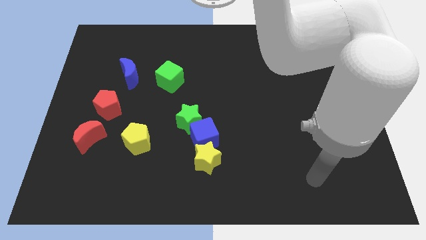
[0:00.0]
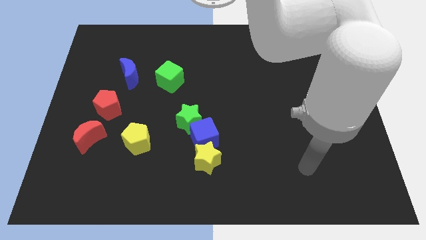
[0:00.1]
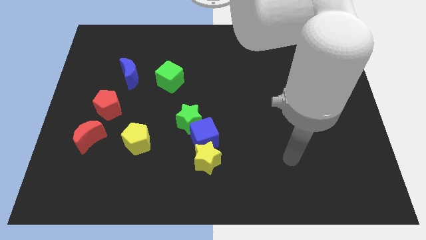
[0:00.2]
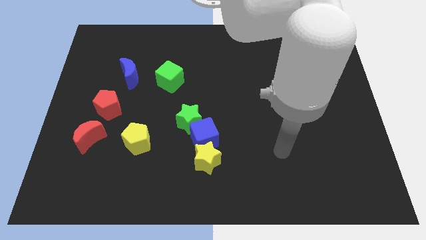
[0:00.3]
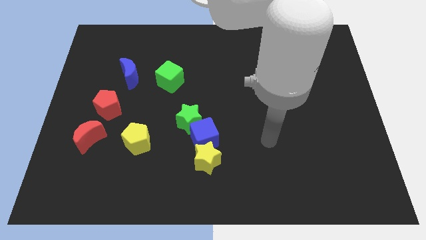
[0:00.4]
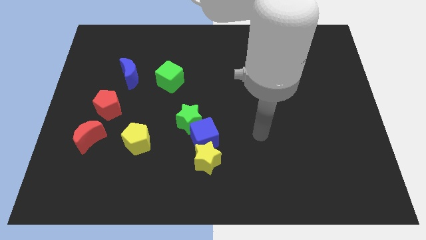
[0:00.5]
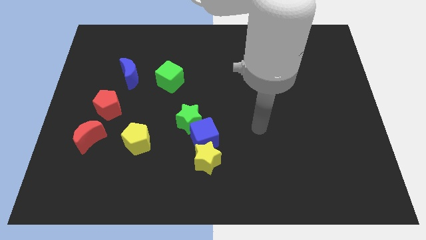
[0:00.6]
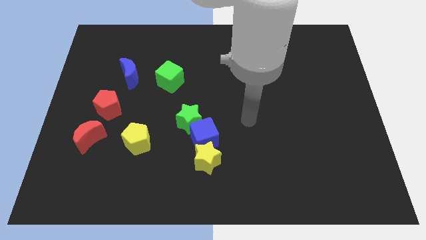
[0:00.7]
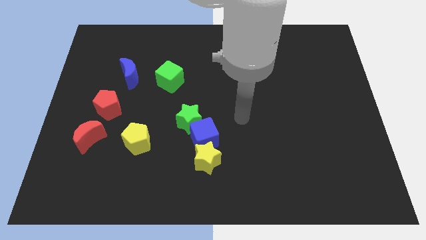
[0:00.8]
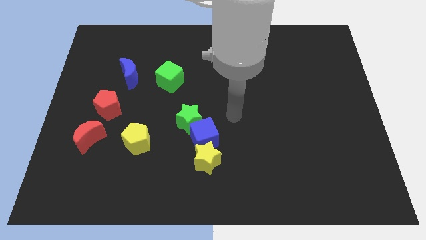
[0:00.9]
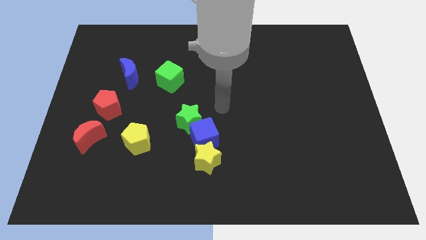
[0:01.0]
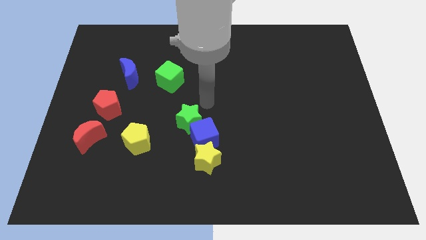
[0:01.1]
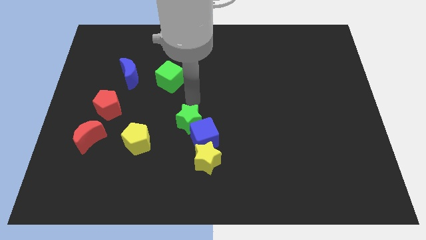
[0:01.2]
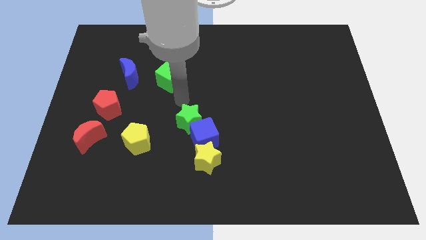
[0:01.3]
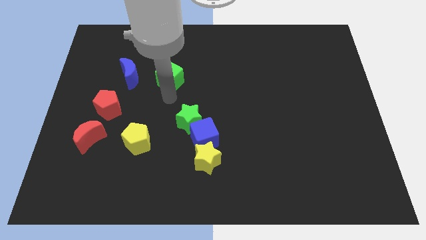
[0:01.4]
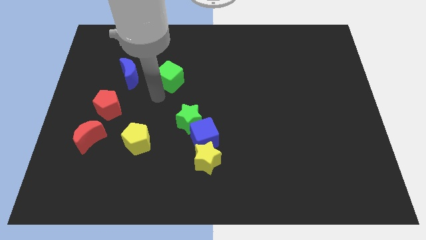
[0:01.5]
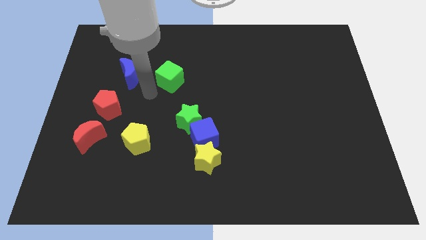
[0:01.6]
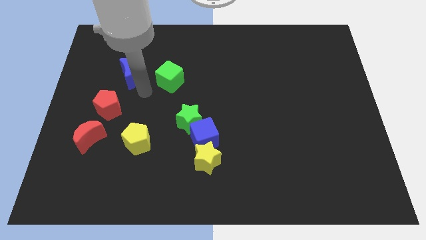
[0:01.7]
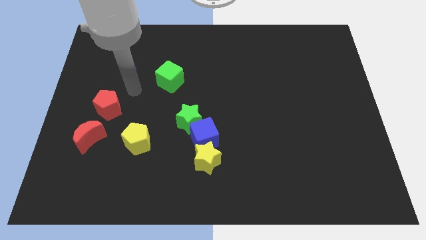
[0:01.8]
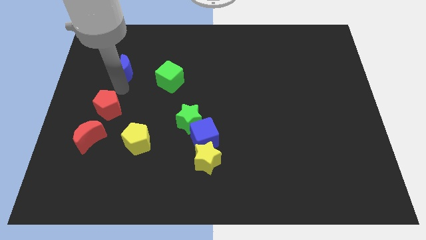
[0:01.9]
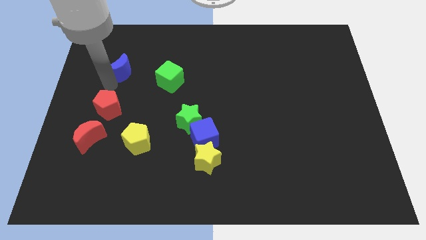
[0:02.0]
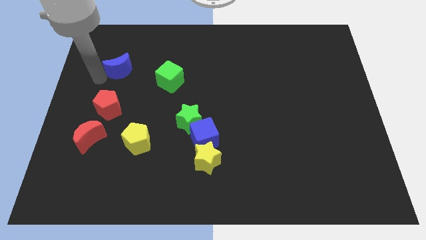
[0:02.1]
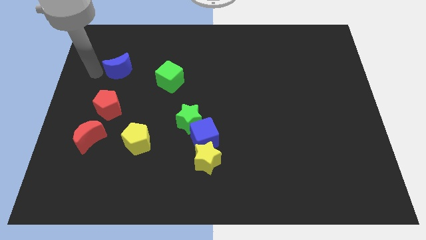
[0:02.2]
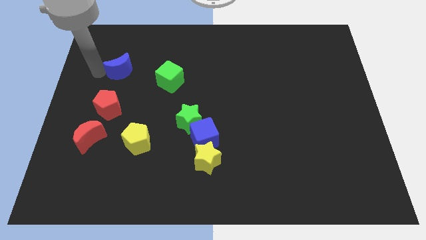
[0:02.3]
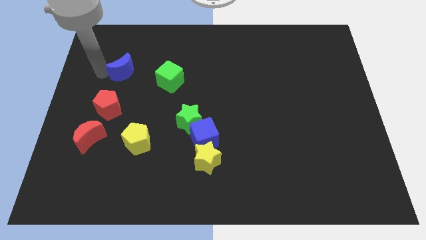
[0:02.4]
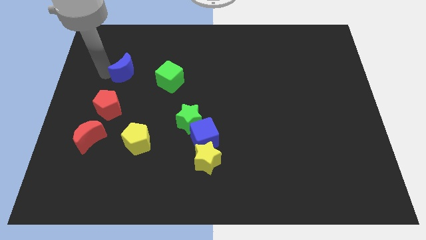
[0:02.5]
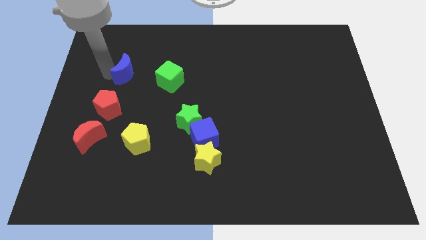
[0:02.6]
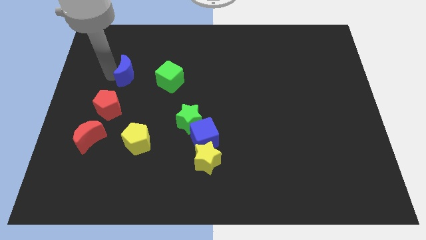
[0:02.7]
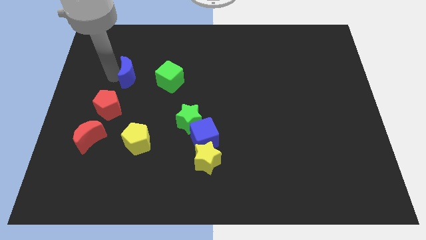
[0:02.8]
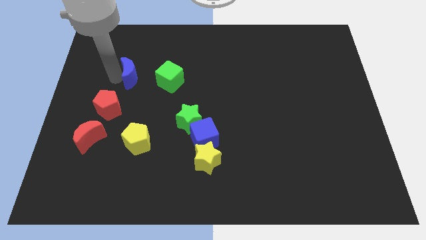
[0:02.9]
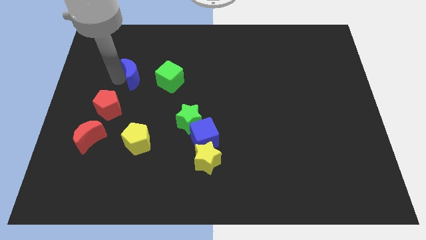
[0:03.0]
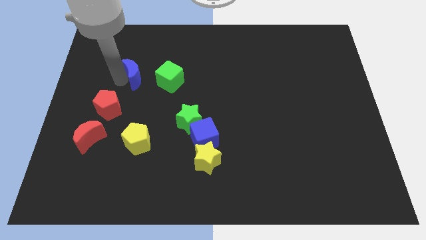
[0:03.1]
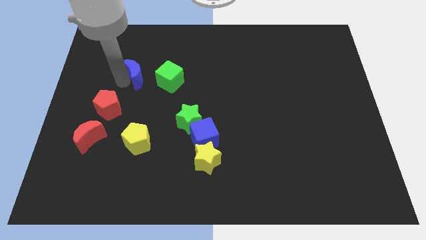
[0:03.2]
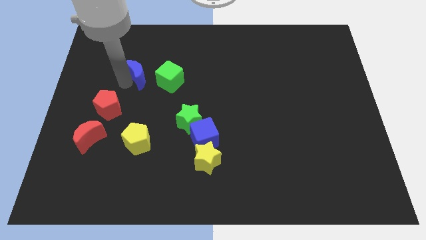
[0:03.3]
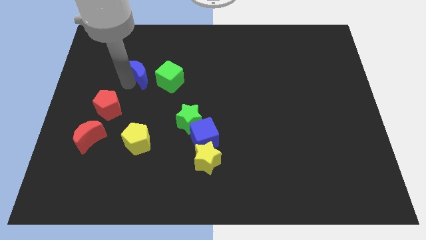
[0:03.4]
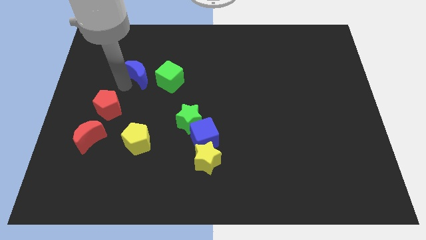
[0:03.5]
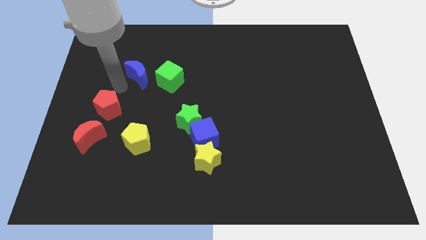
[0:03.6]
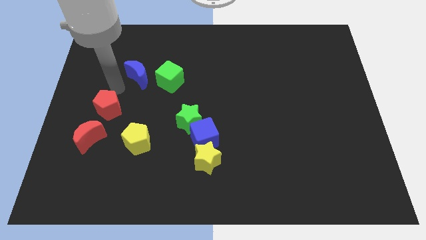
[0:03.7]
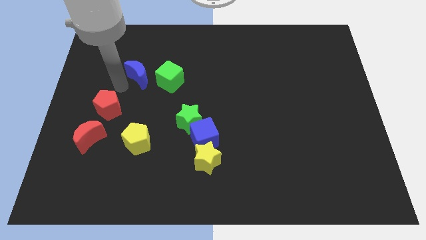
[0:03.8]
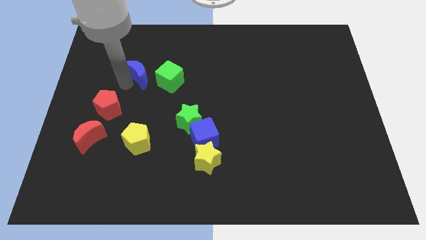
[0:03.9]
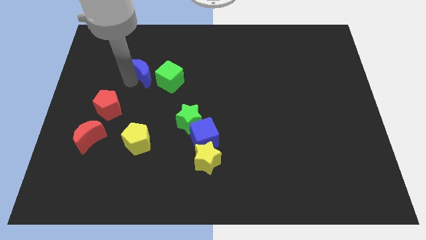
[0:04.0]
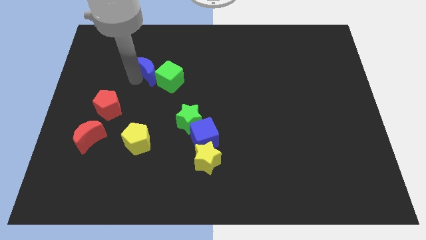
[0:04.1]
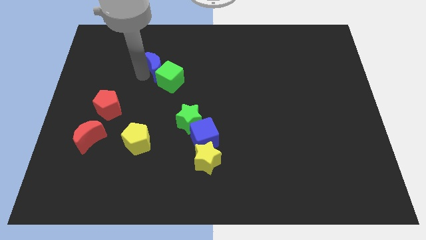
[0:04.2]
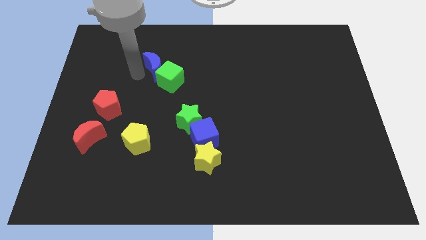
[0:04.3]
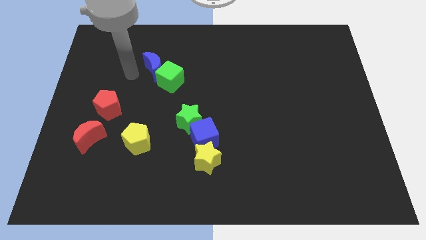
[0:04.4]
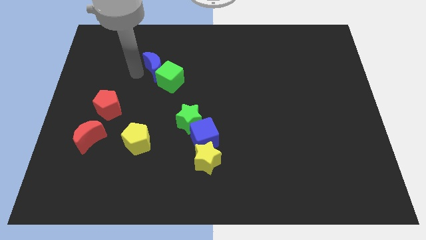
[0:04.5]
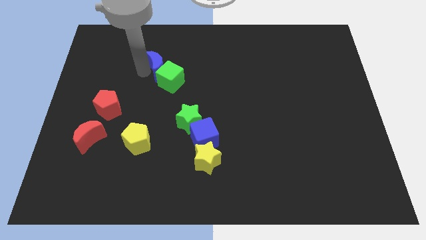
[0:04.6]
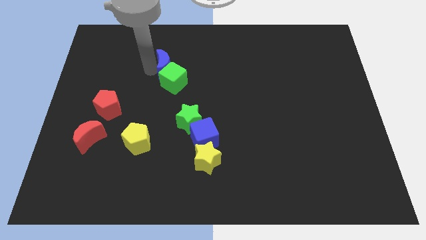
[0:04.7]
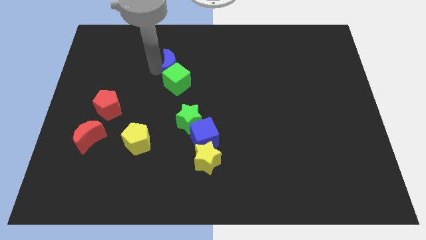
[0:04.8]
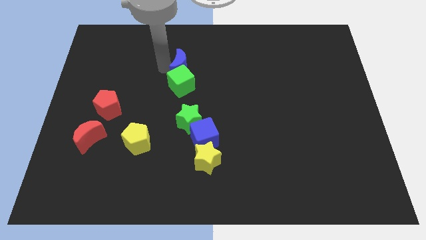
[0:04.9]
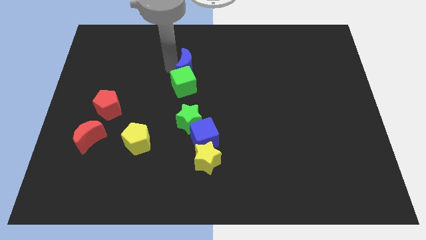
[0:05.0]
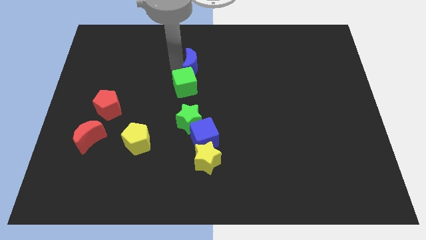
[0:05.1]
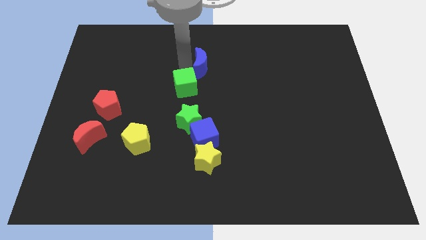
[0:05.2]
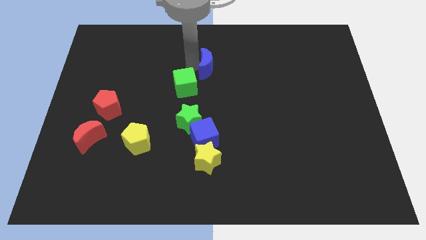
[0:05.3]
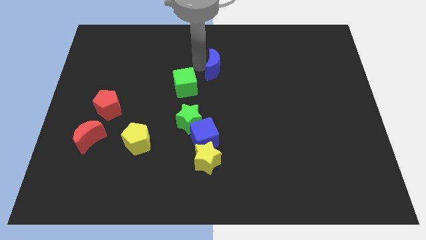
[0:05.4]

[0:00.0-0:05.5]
slide the blue moon to the right

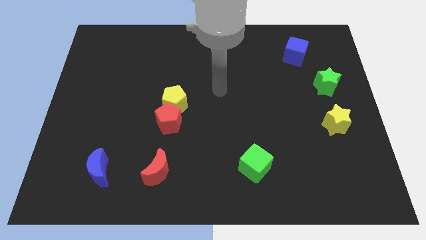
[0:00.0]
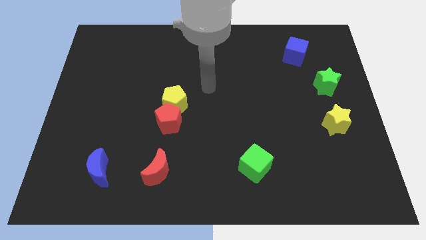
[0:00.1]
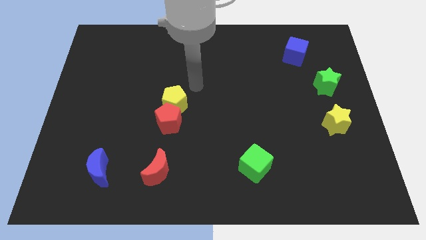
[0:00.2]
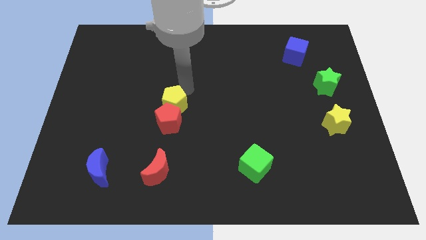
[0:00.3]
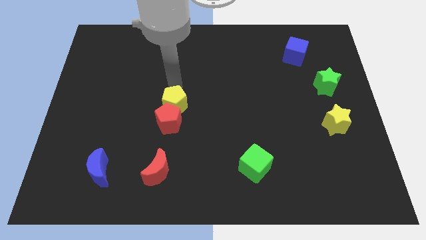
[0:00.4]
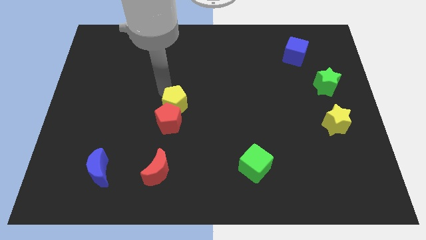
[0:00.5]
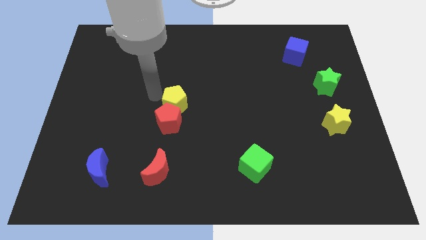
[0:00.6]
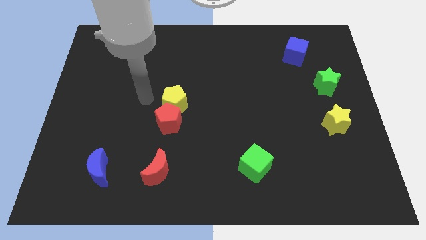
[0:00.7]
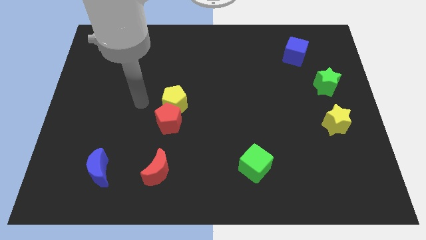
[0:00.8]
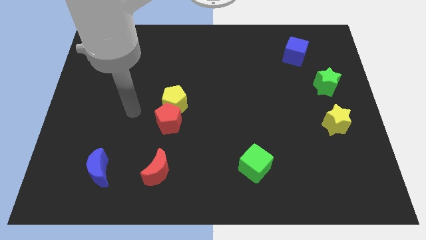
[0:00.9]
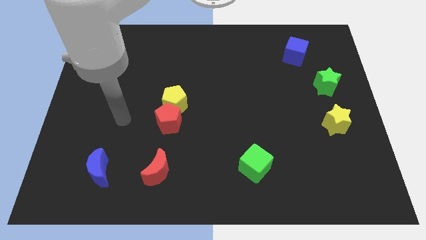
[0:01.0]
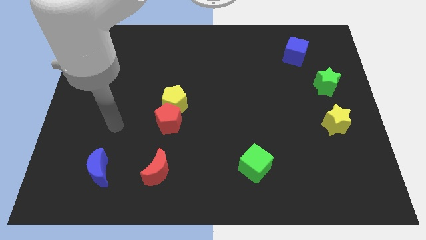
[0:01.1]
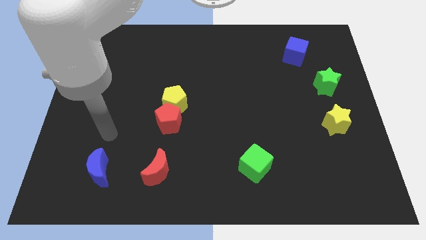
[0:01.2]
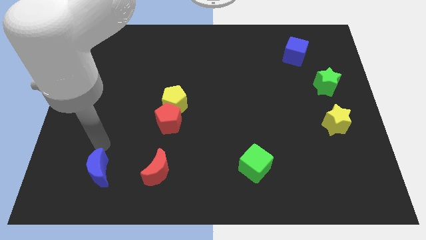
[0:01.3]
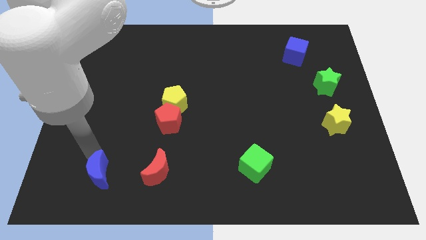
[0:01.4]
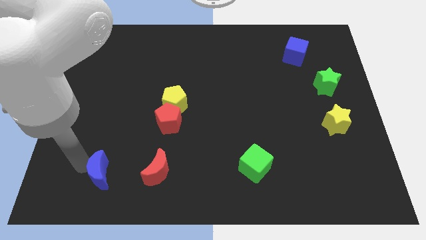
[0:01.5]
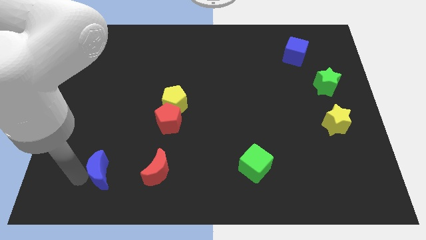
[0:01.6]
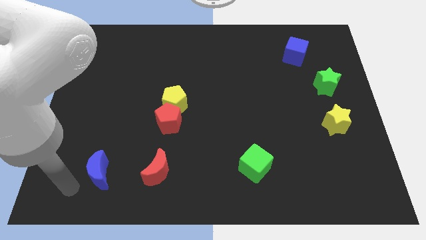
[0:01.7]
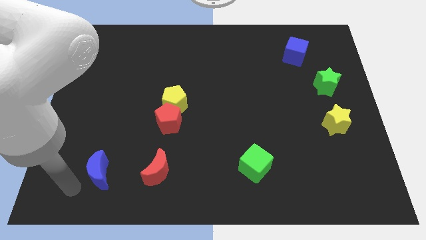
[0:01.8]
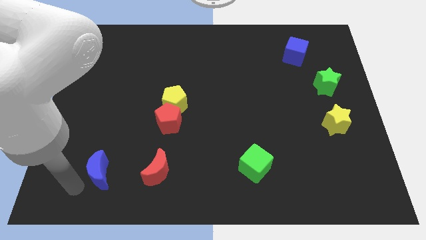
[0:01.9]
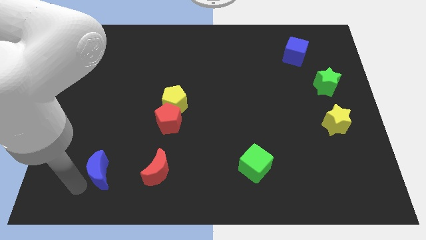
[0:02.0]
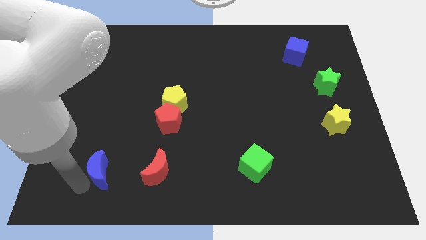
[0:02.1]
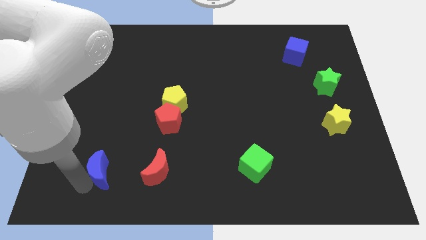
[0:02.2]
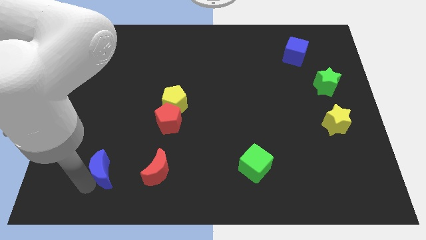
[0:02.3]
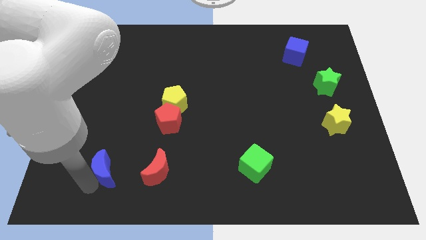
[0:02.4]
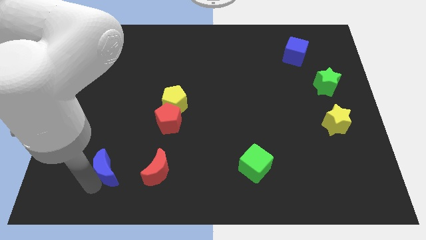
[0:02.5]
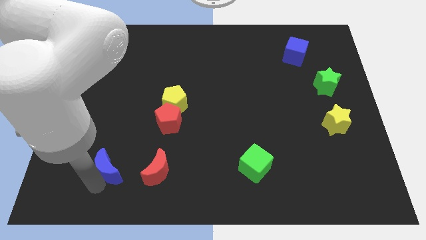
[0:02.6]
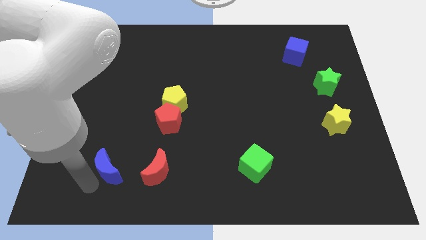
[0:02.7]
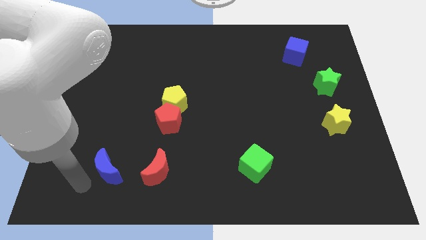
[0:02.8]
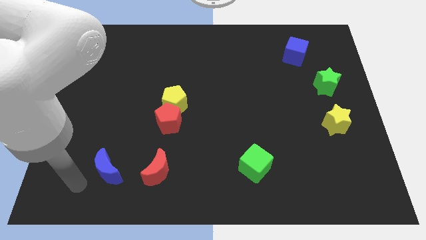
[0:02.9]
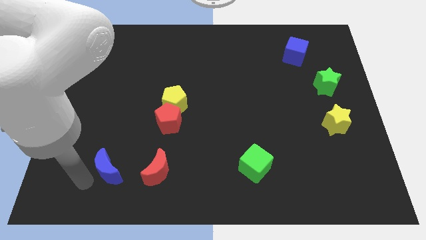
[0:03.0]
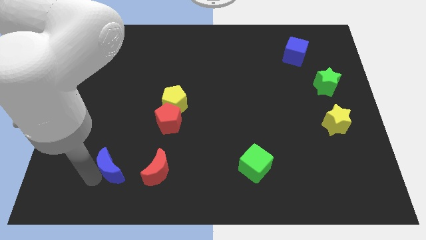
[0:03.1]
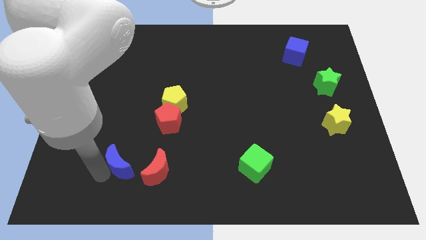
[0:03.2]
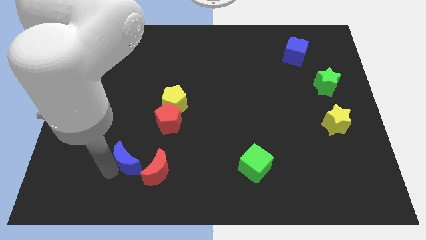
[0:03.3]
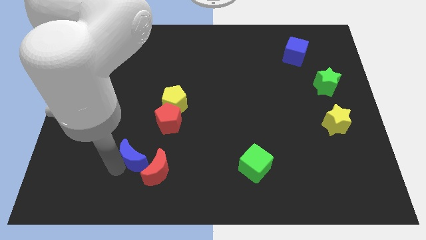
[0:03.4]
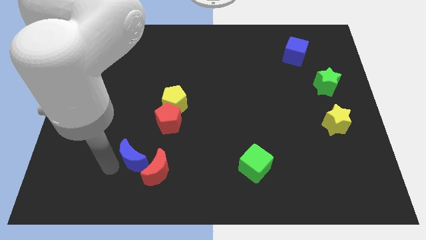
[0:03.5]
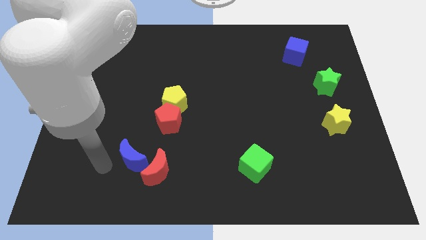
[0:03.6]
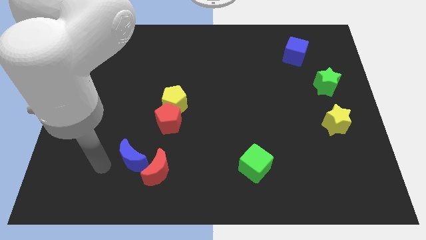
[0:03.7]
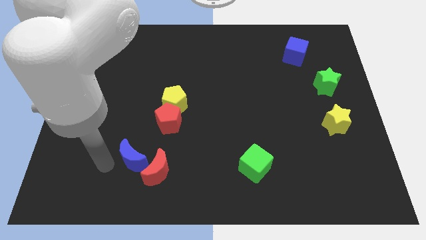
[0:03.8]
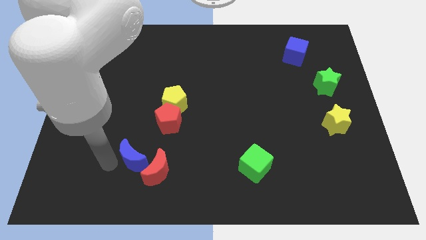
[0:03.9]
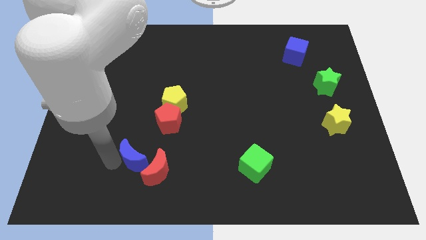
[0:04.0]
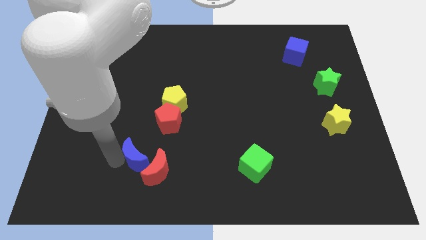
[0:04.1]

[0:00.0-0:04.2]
slightly move the blue moon right
